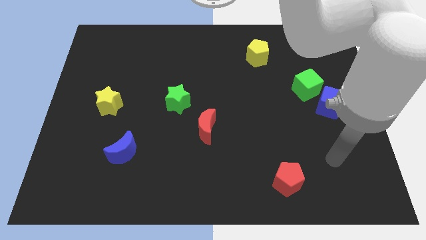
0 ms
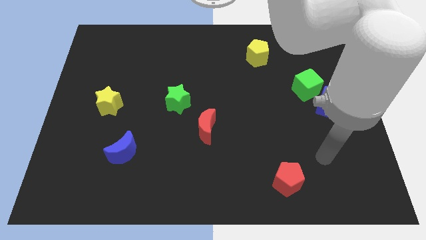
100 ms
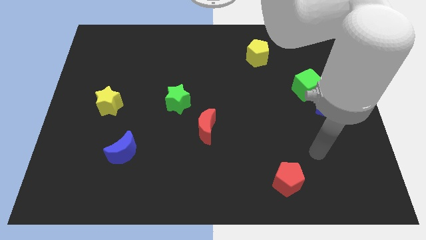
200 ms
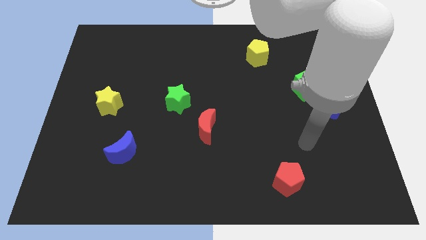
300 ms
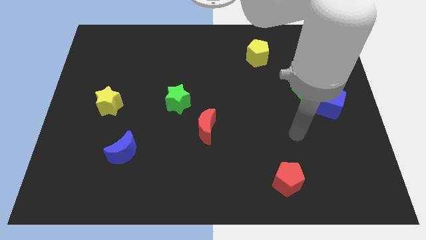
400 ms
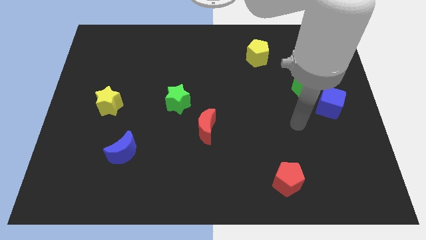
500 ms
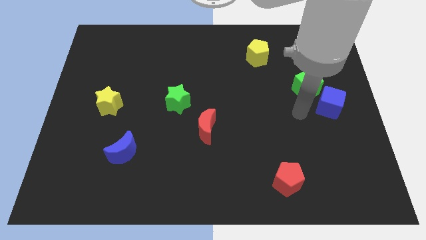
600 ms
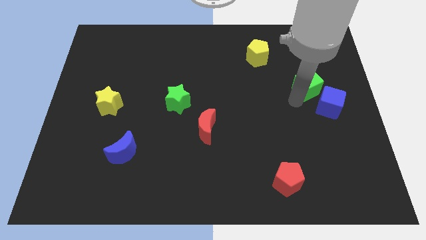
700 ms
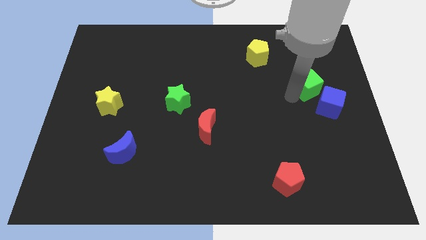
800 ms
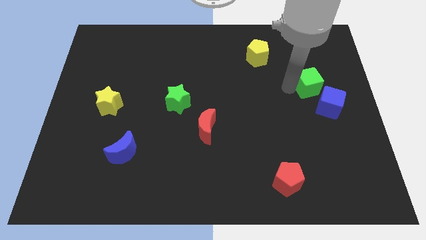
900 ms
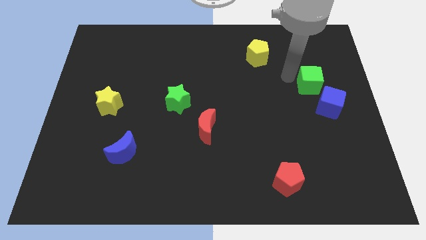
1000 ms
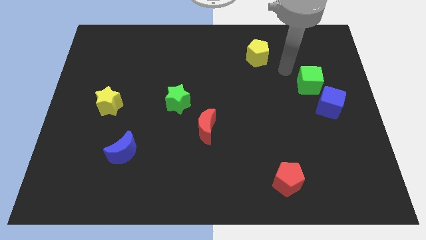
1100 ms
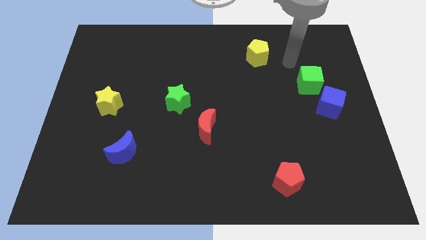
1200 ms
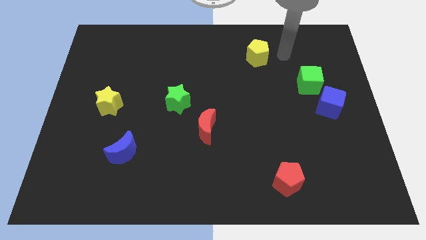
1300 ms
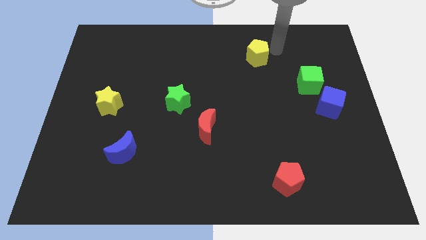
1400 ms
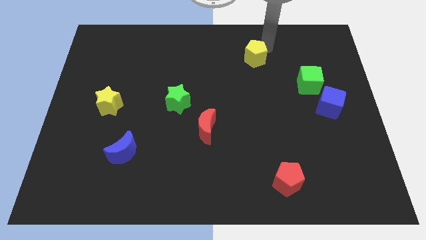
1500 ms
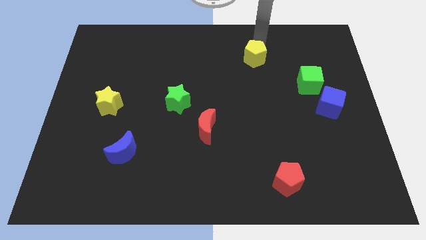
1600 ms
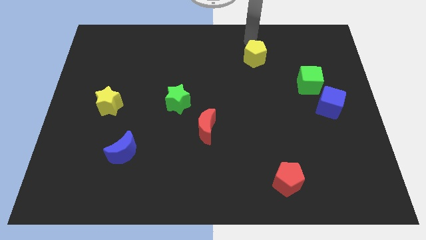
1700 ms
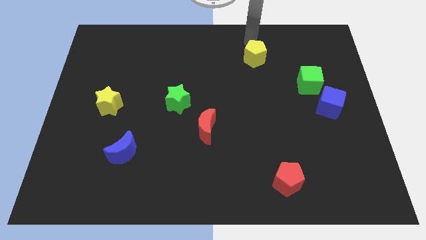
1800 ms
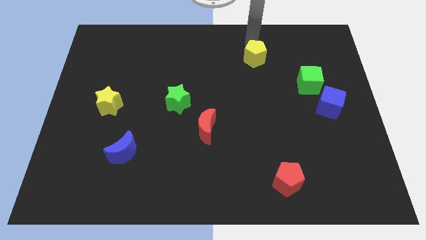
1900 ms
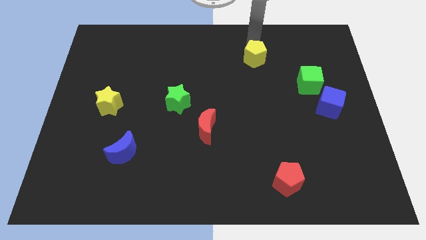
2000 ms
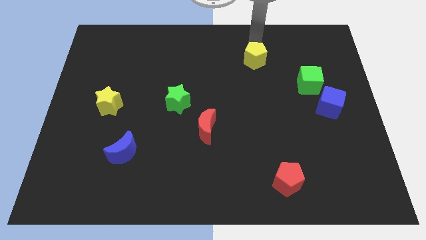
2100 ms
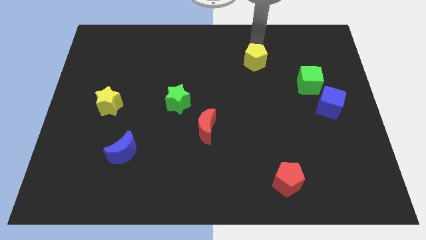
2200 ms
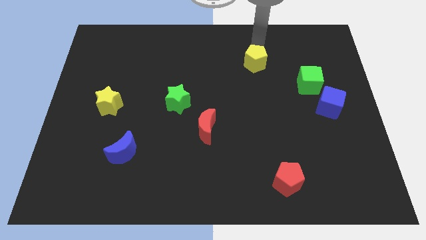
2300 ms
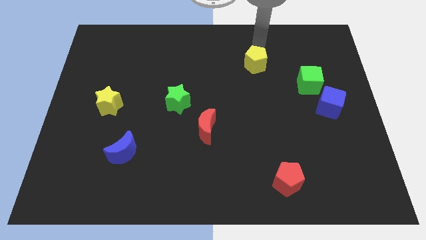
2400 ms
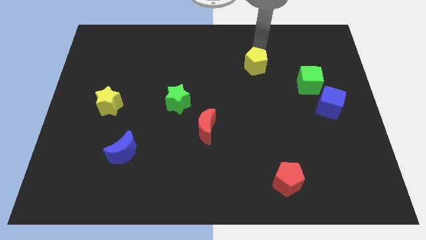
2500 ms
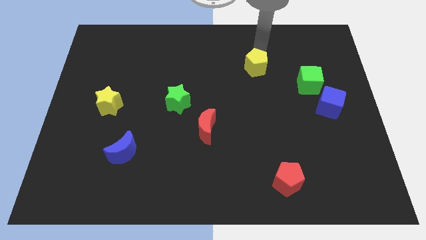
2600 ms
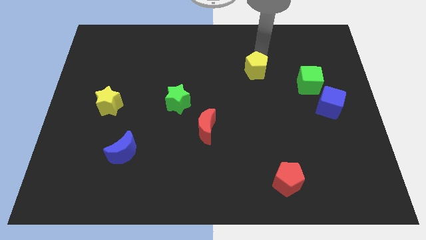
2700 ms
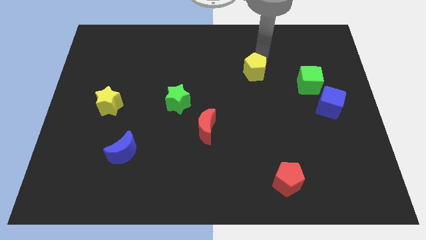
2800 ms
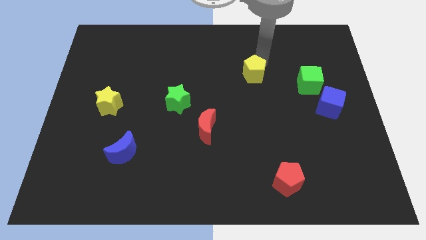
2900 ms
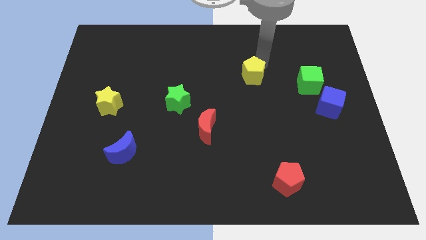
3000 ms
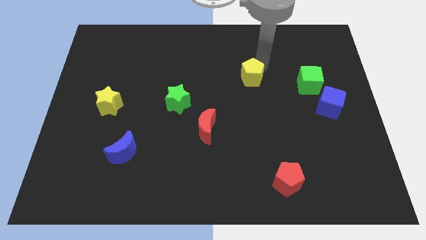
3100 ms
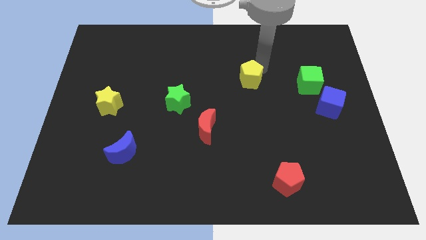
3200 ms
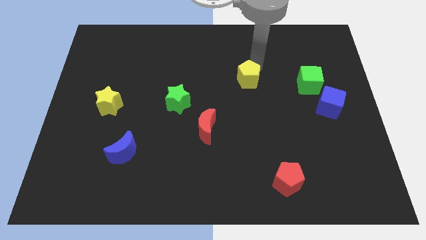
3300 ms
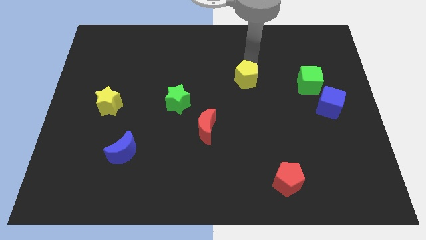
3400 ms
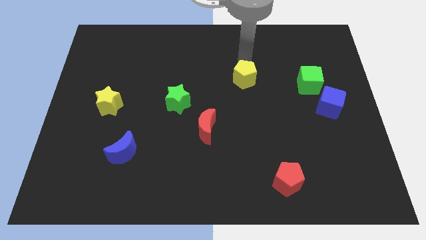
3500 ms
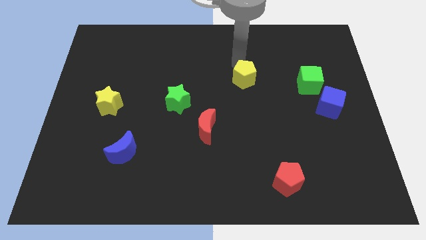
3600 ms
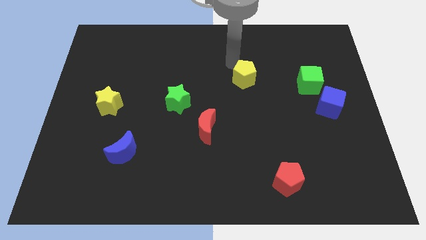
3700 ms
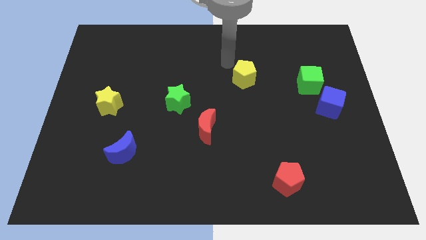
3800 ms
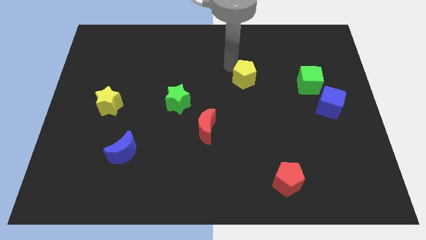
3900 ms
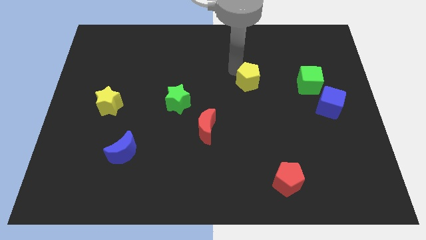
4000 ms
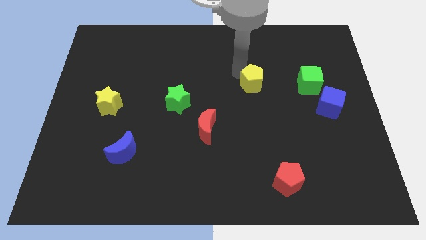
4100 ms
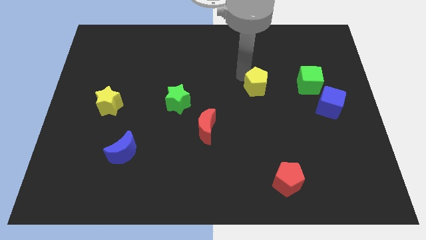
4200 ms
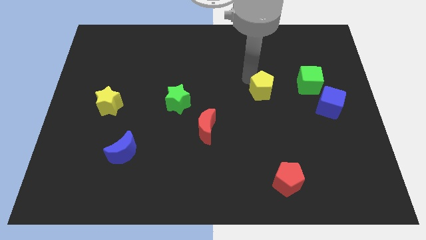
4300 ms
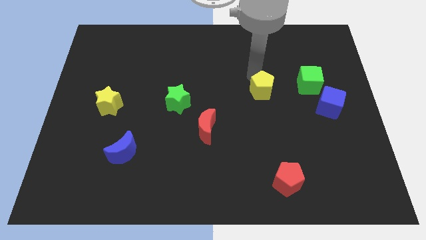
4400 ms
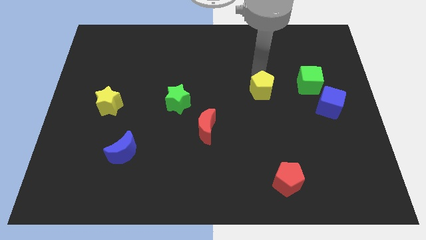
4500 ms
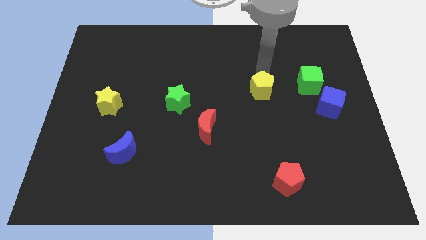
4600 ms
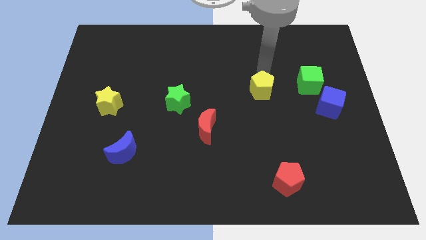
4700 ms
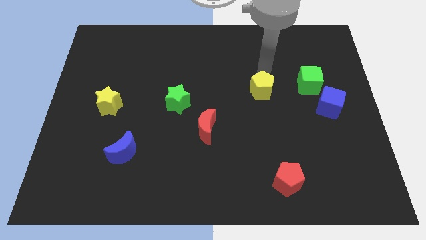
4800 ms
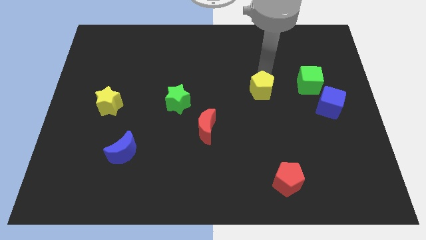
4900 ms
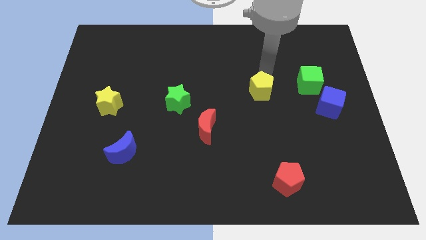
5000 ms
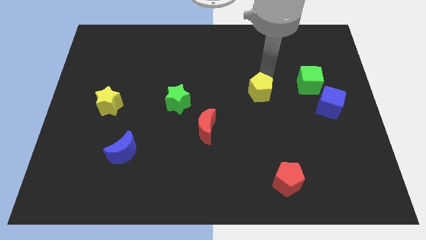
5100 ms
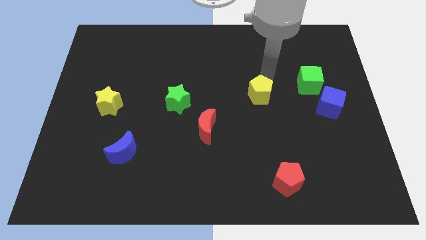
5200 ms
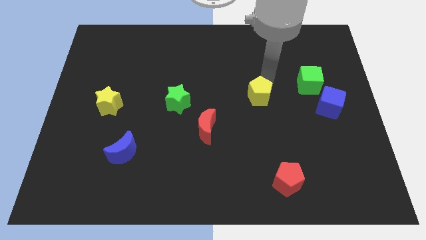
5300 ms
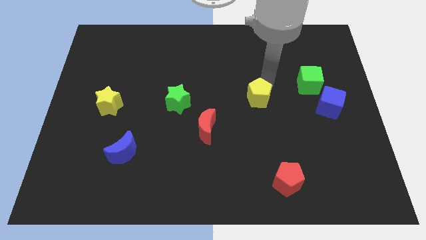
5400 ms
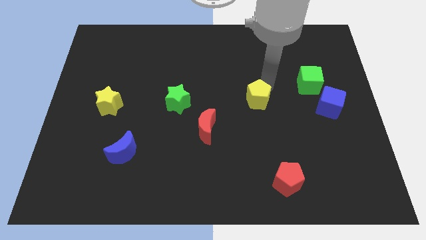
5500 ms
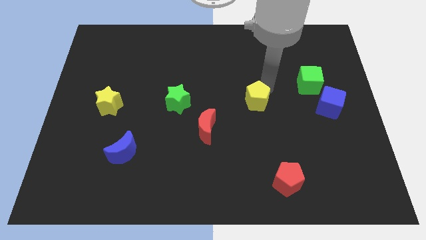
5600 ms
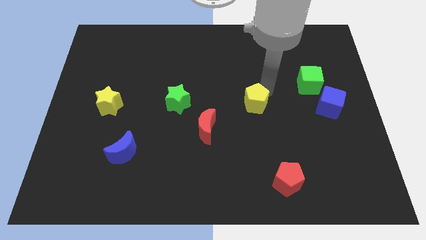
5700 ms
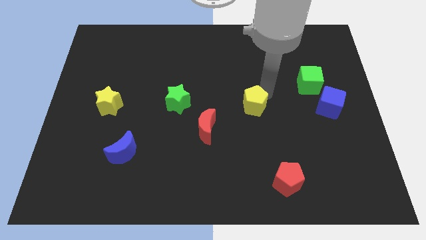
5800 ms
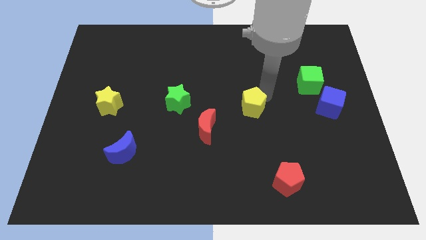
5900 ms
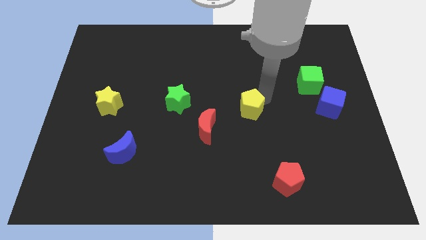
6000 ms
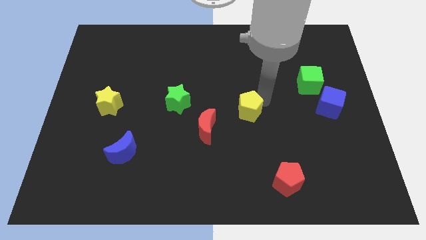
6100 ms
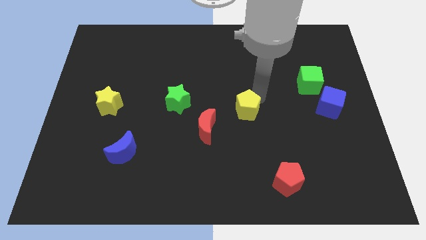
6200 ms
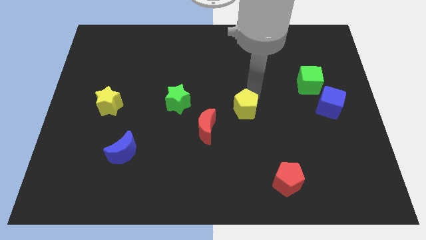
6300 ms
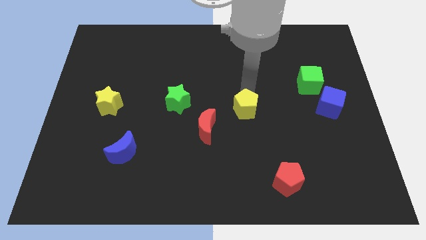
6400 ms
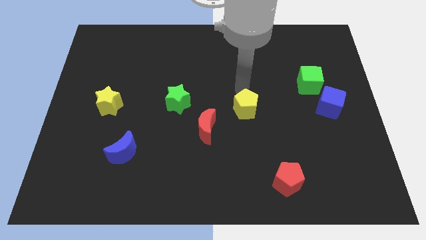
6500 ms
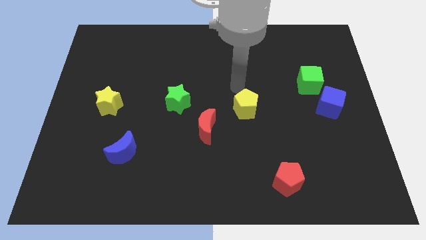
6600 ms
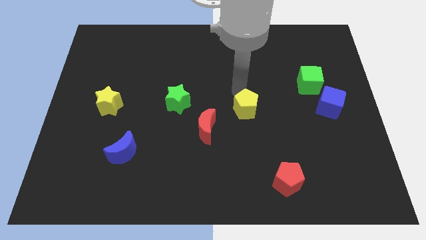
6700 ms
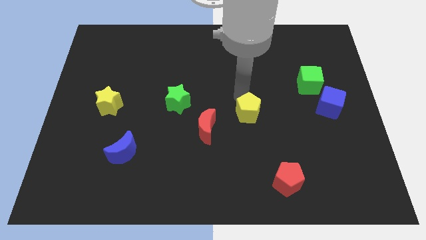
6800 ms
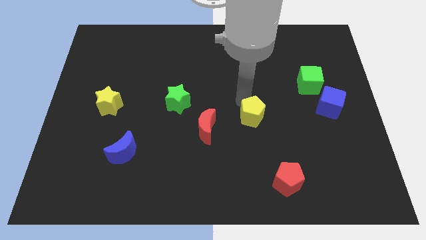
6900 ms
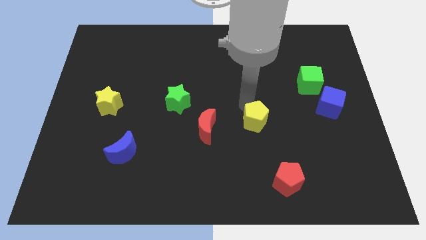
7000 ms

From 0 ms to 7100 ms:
move the yellow pentagon downwards

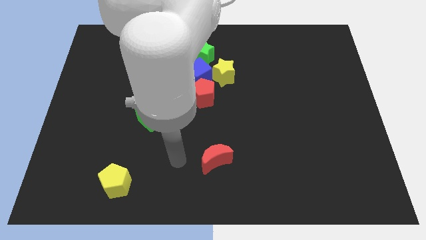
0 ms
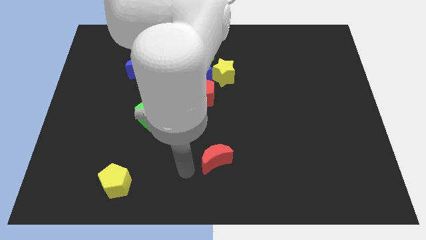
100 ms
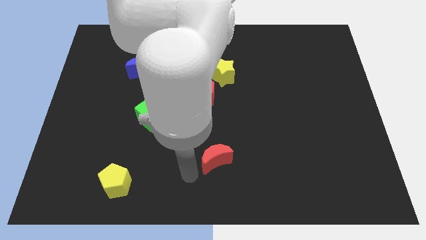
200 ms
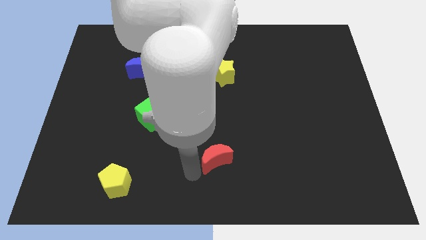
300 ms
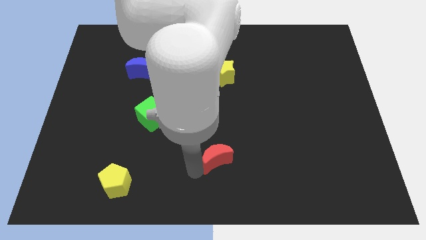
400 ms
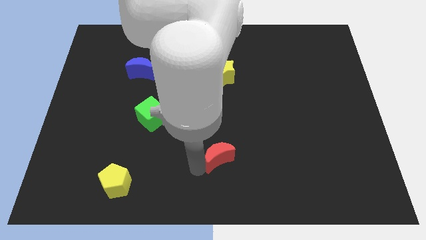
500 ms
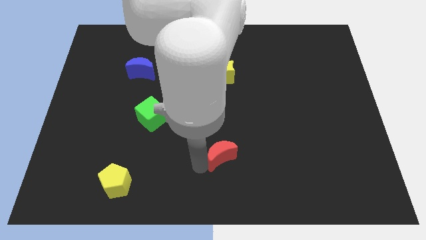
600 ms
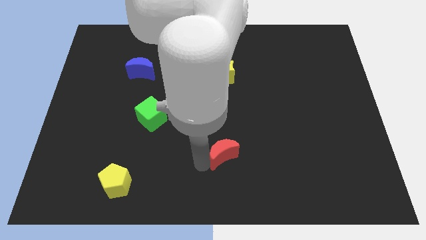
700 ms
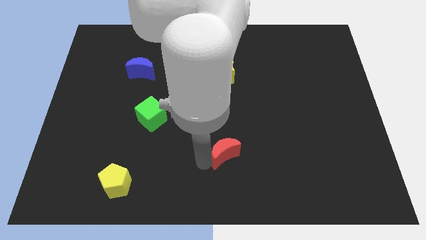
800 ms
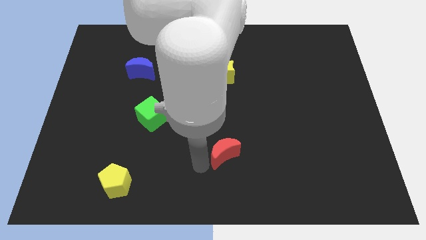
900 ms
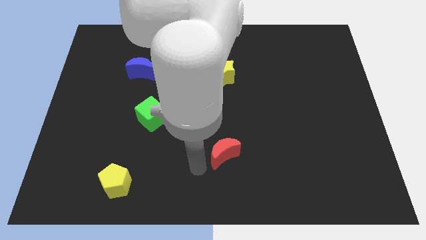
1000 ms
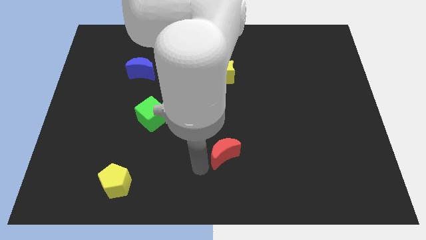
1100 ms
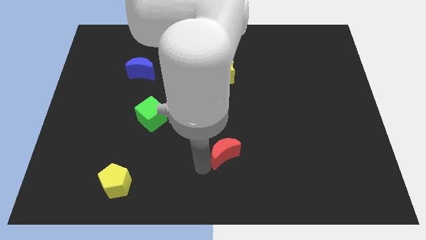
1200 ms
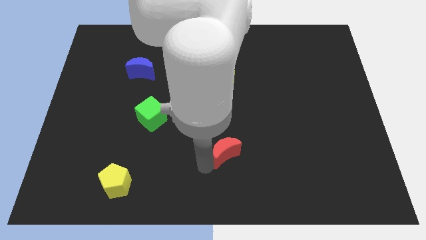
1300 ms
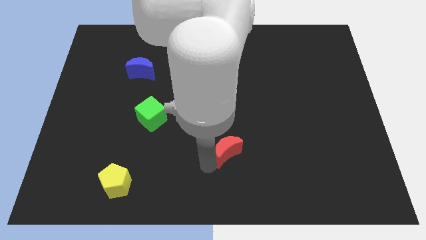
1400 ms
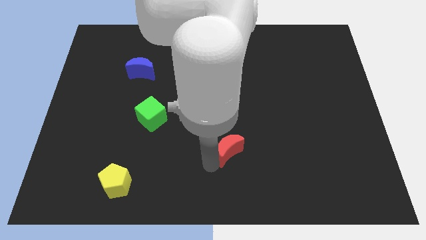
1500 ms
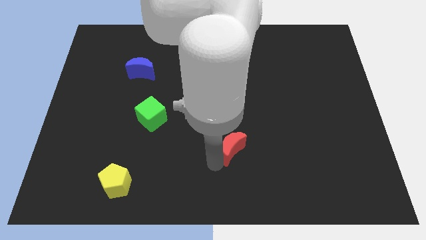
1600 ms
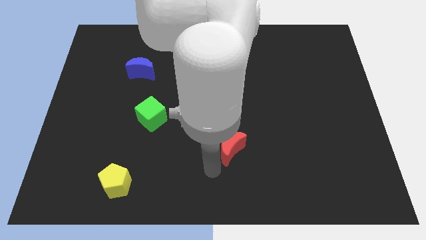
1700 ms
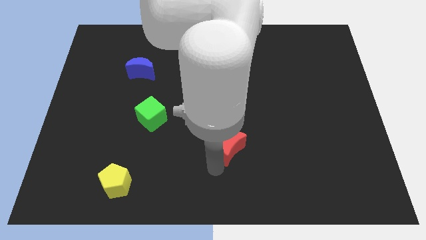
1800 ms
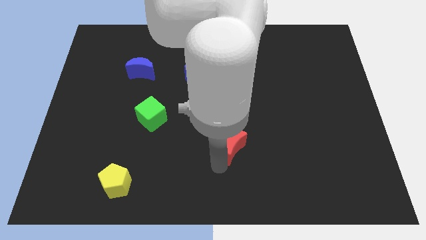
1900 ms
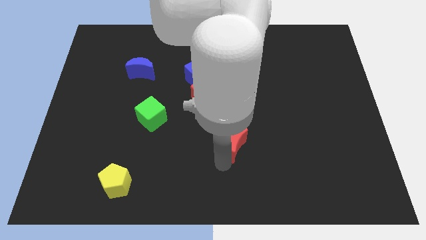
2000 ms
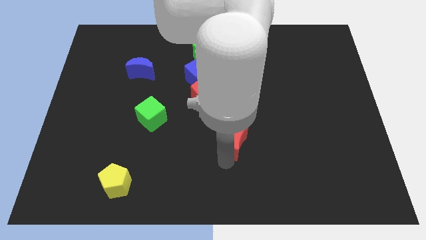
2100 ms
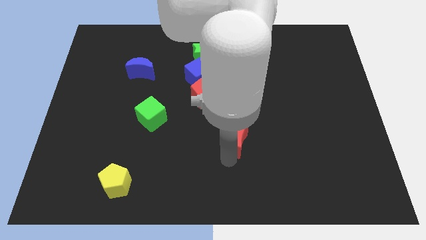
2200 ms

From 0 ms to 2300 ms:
slightly move the red moon diagonally up and right
